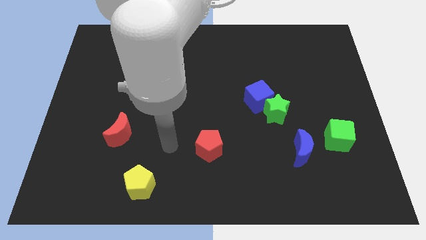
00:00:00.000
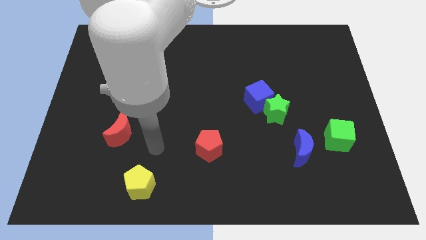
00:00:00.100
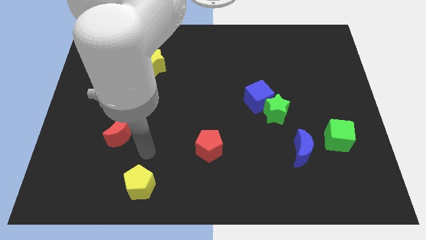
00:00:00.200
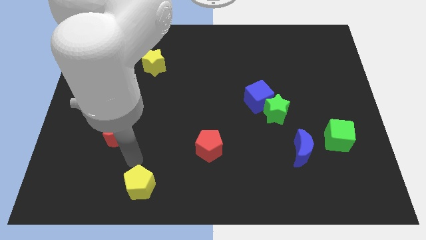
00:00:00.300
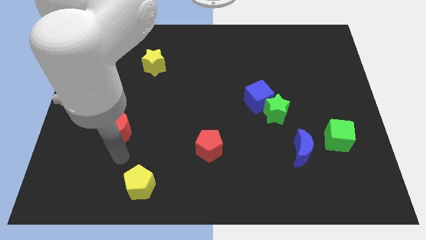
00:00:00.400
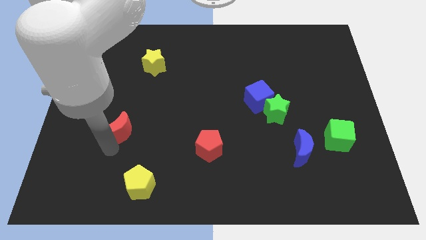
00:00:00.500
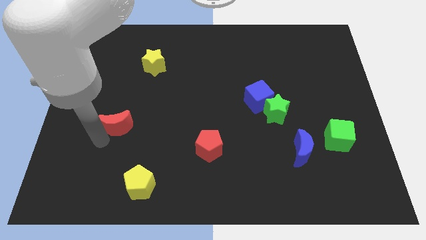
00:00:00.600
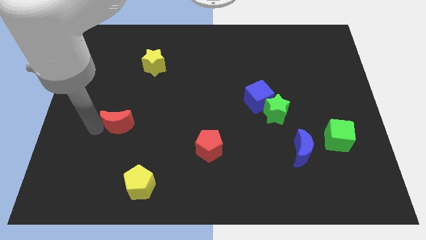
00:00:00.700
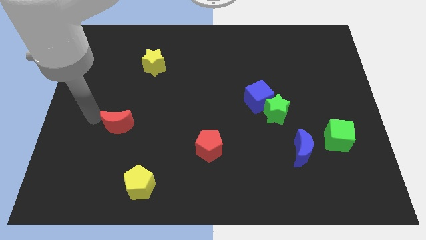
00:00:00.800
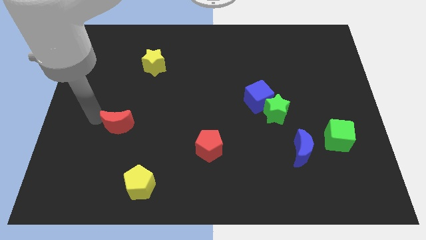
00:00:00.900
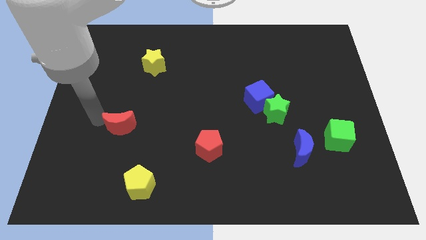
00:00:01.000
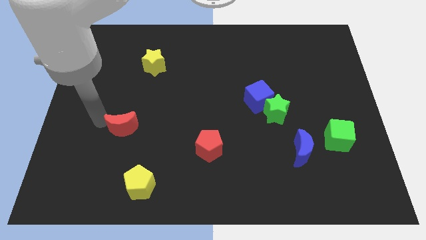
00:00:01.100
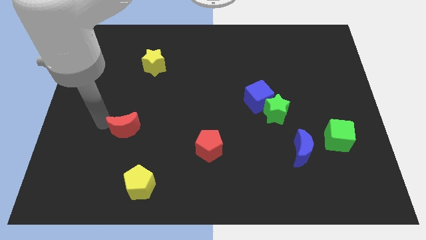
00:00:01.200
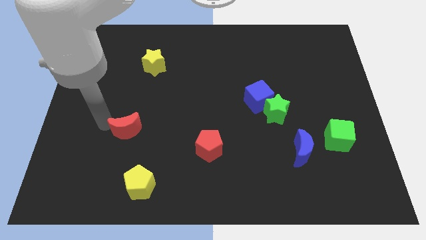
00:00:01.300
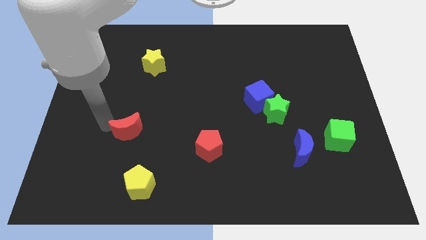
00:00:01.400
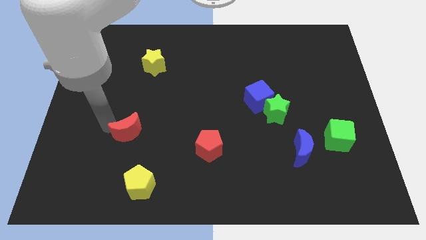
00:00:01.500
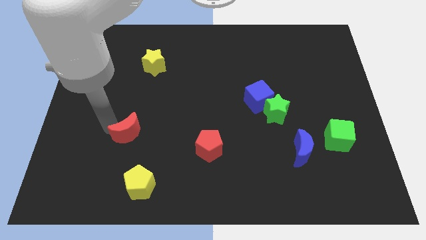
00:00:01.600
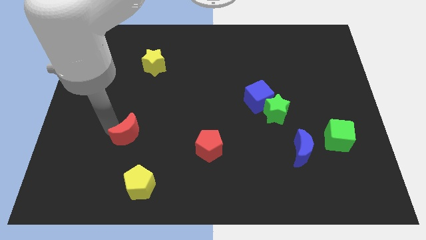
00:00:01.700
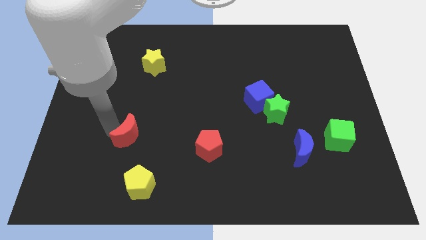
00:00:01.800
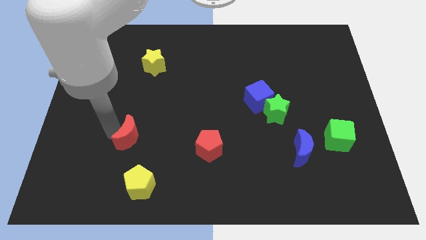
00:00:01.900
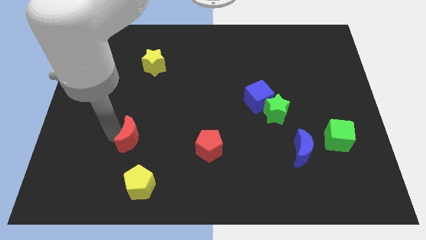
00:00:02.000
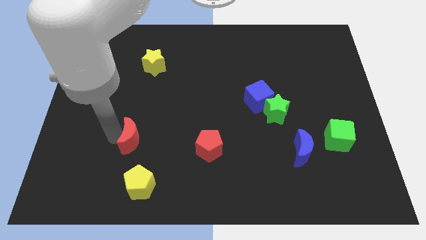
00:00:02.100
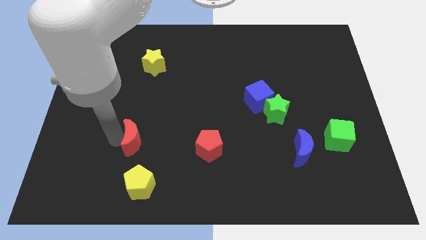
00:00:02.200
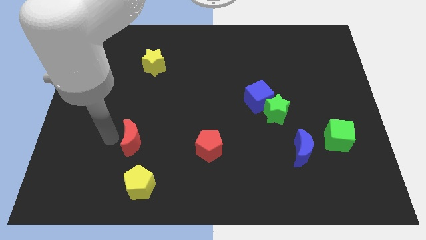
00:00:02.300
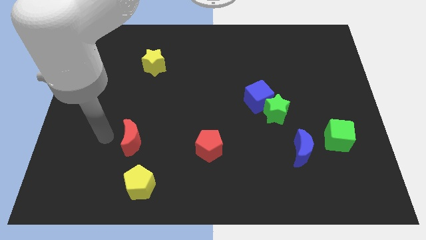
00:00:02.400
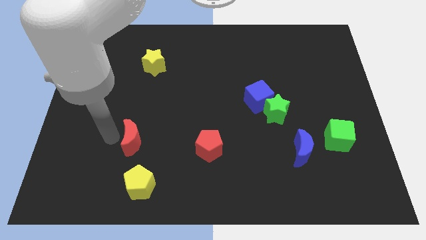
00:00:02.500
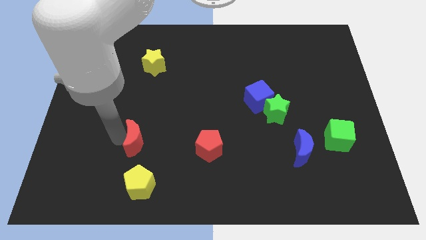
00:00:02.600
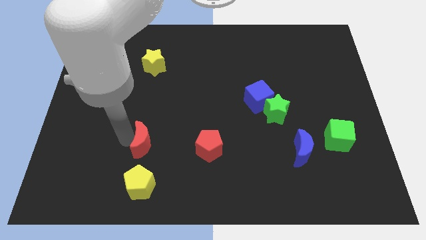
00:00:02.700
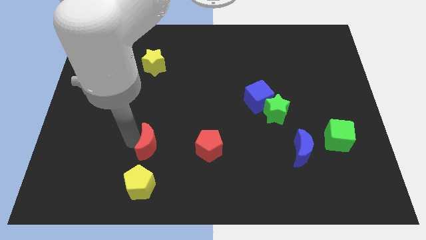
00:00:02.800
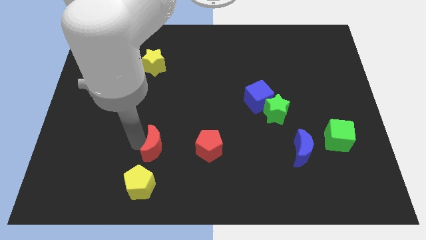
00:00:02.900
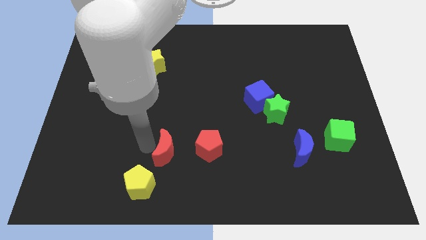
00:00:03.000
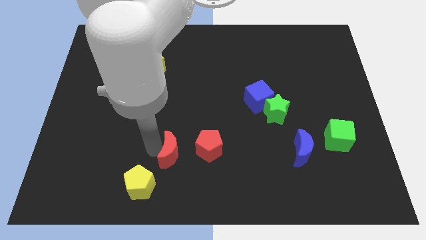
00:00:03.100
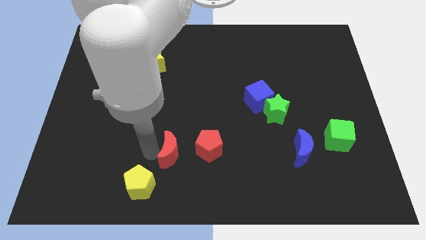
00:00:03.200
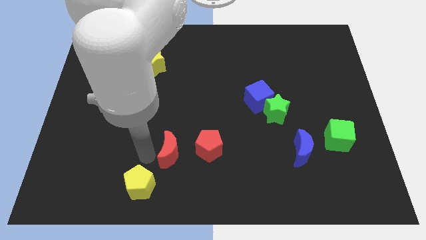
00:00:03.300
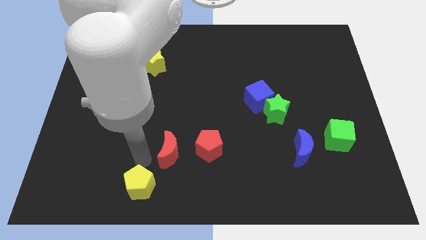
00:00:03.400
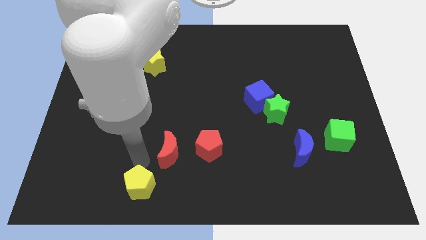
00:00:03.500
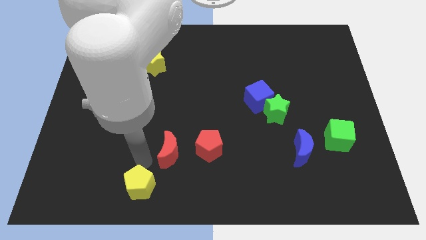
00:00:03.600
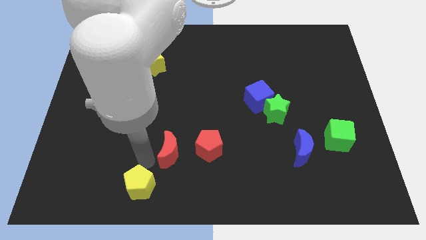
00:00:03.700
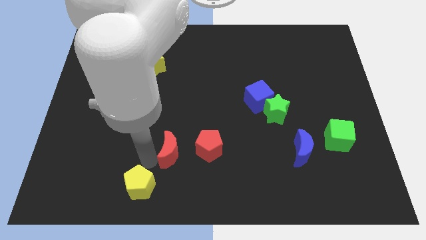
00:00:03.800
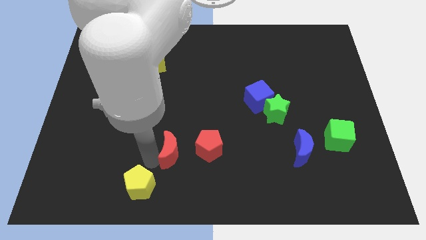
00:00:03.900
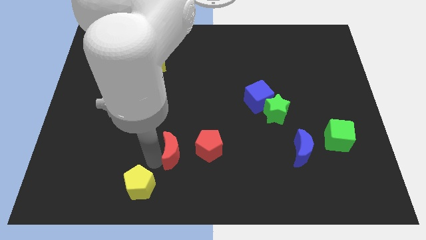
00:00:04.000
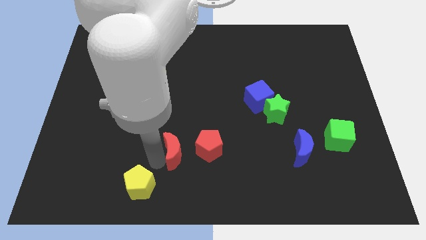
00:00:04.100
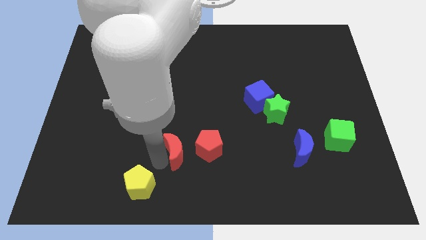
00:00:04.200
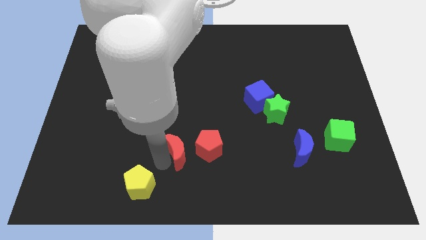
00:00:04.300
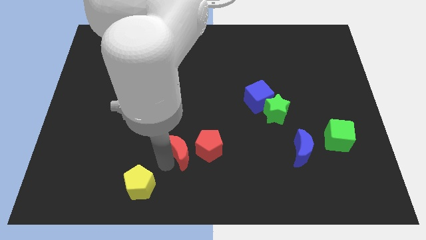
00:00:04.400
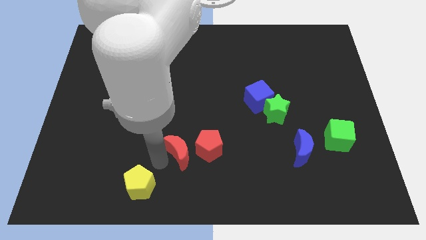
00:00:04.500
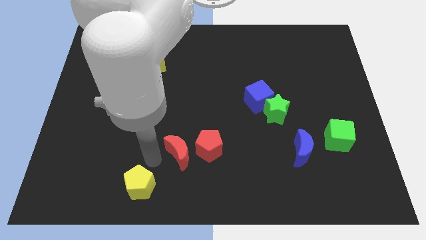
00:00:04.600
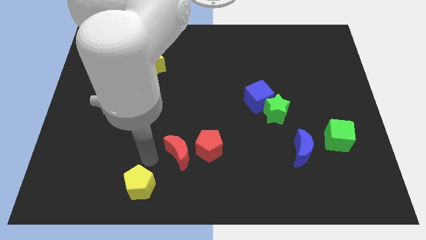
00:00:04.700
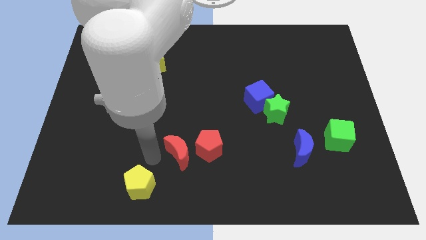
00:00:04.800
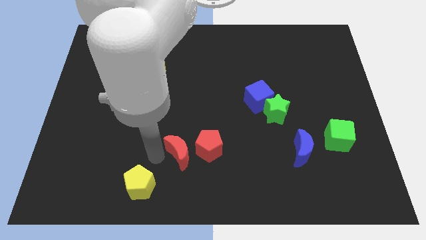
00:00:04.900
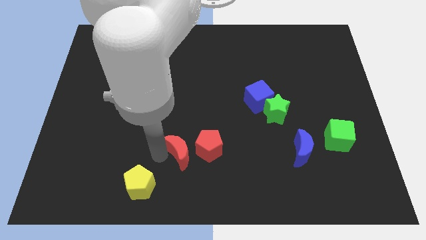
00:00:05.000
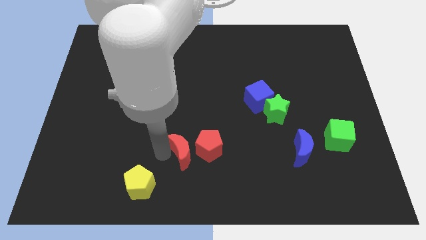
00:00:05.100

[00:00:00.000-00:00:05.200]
put the red moon towards the red pentagon

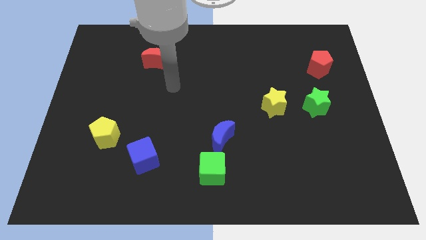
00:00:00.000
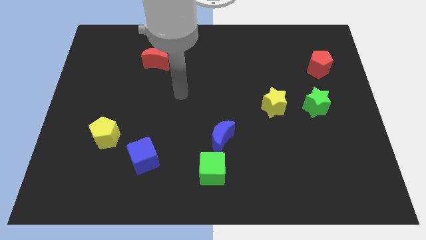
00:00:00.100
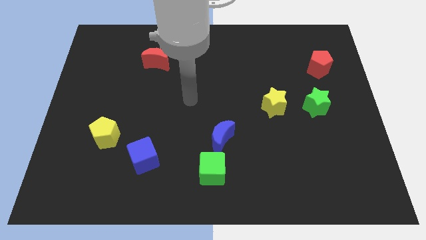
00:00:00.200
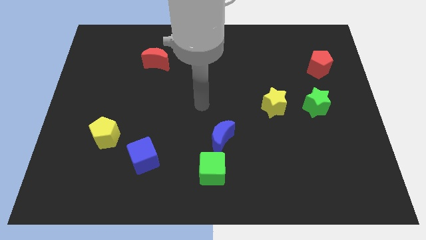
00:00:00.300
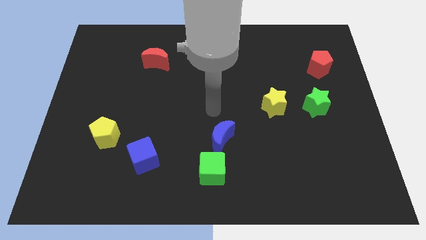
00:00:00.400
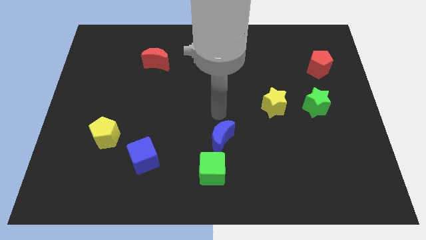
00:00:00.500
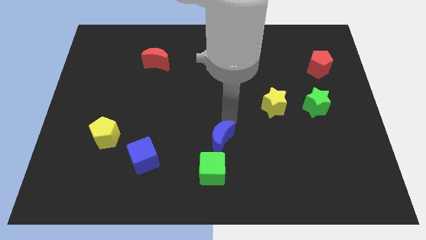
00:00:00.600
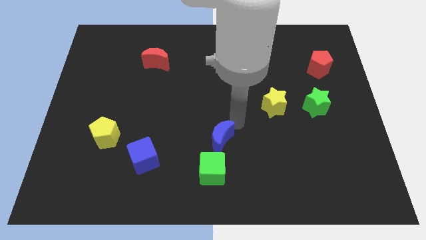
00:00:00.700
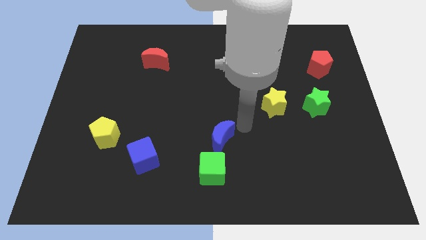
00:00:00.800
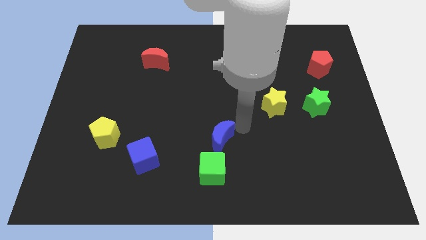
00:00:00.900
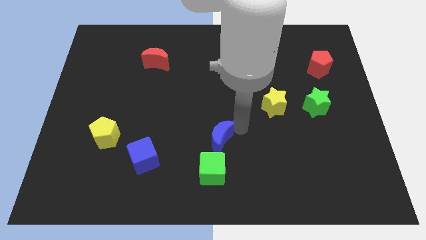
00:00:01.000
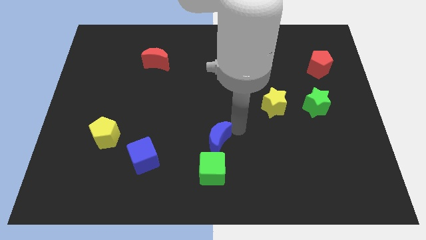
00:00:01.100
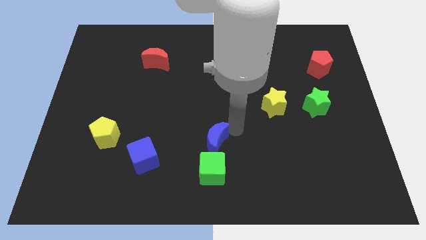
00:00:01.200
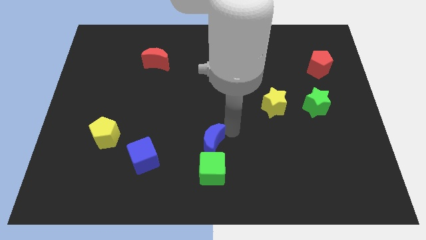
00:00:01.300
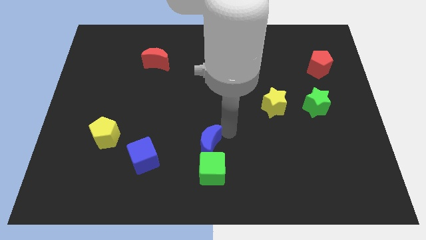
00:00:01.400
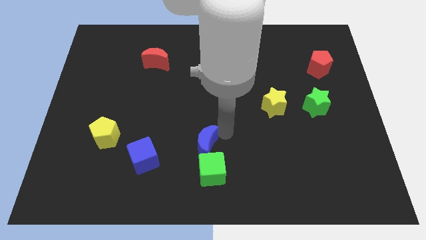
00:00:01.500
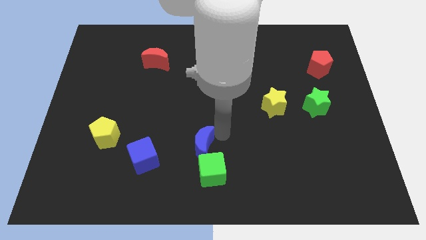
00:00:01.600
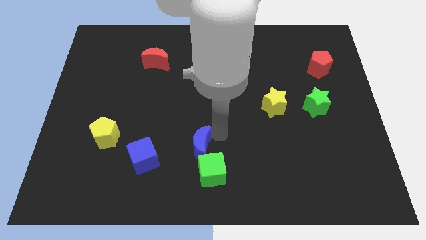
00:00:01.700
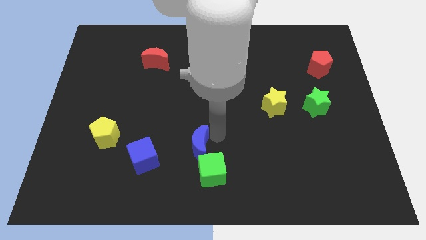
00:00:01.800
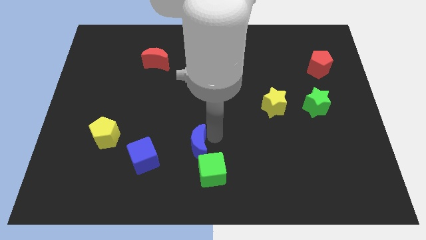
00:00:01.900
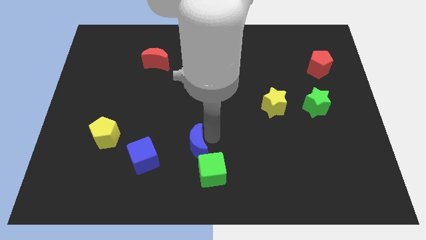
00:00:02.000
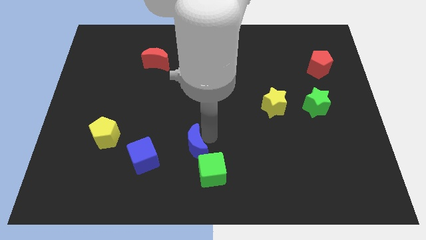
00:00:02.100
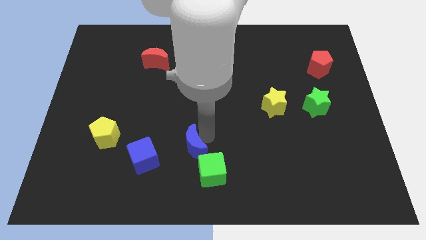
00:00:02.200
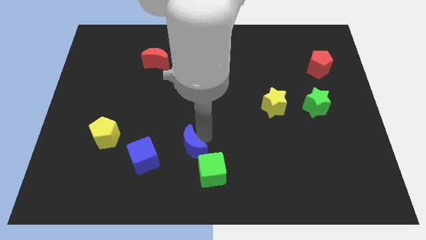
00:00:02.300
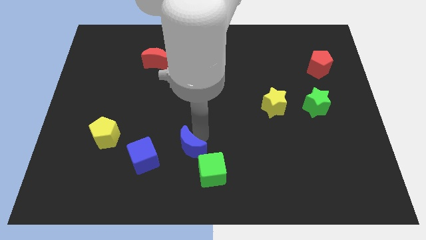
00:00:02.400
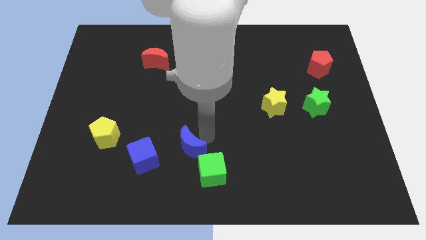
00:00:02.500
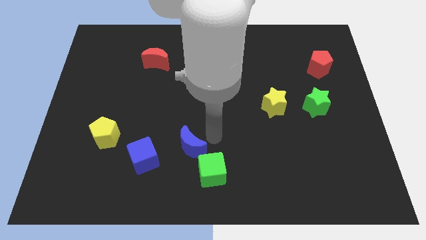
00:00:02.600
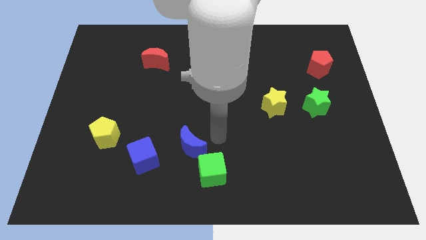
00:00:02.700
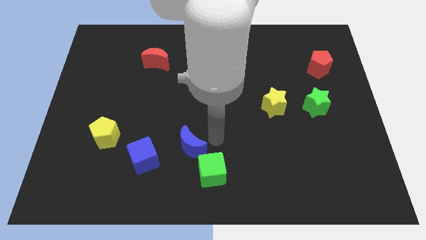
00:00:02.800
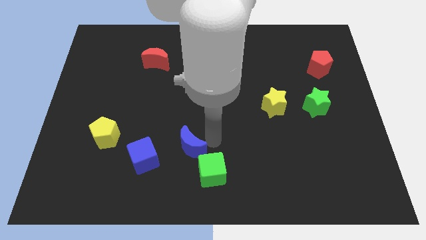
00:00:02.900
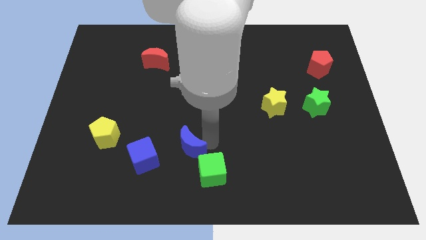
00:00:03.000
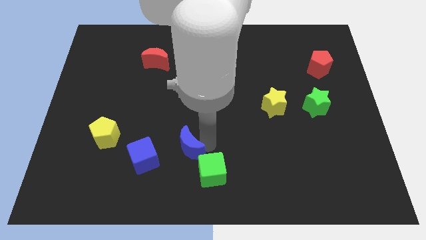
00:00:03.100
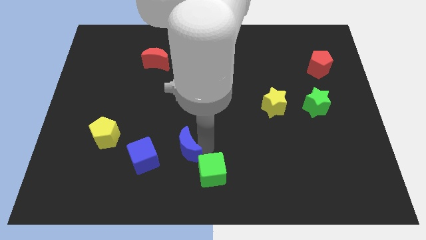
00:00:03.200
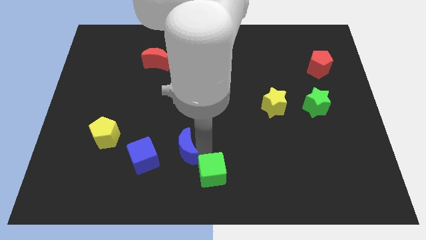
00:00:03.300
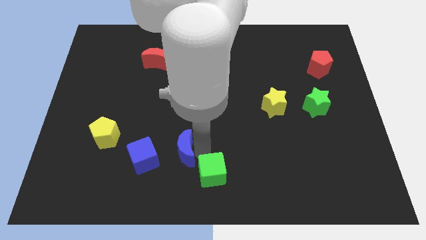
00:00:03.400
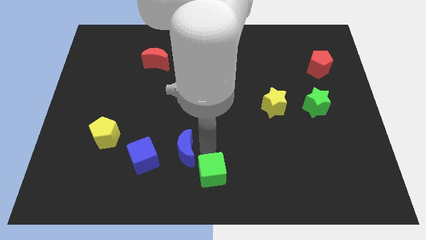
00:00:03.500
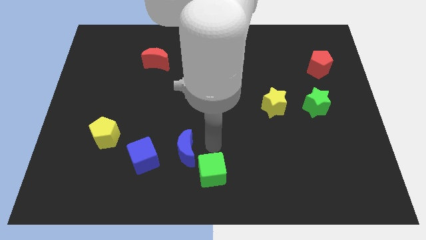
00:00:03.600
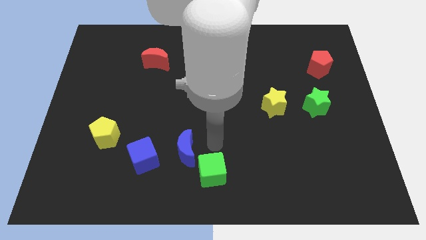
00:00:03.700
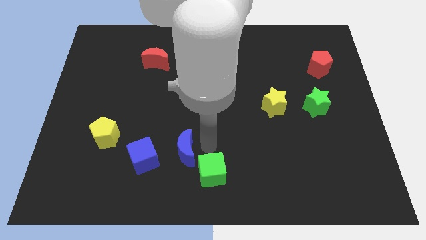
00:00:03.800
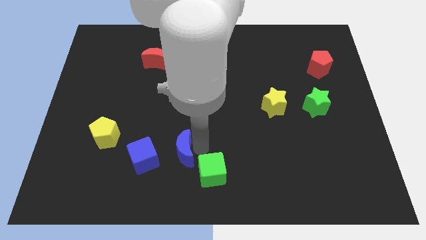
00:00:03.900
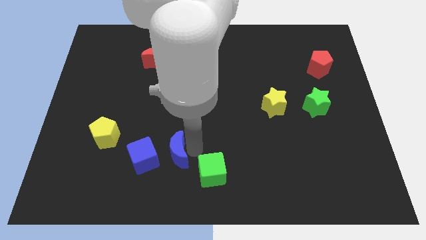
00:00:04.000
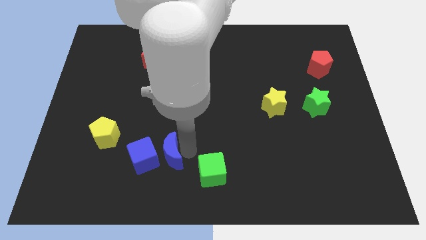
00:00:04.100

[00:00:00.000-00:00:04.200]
slide the blue moon close to the blue cube
